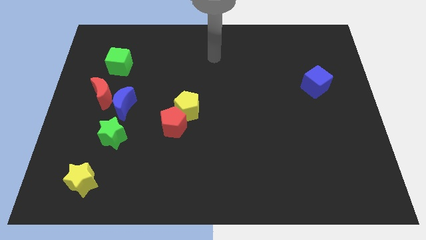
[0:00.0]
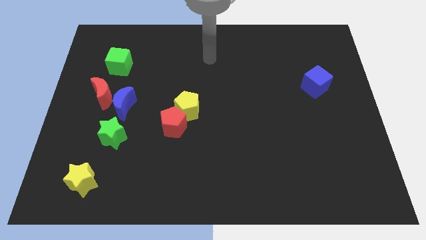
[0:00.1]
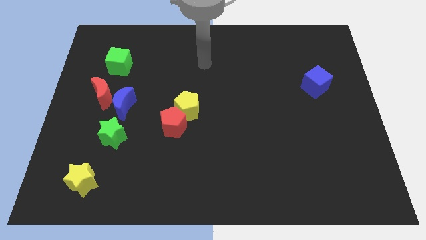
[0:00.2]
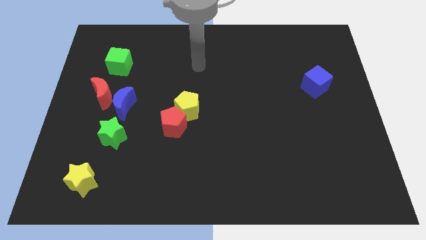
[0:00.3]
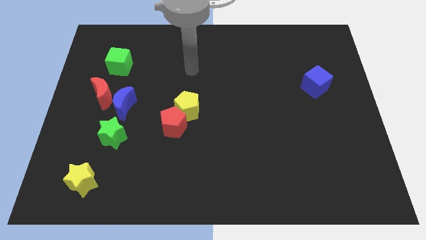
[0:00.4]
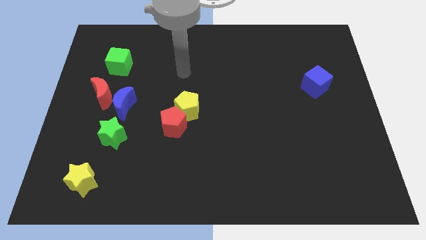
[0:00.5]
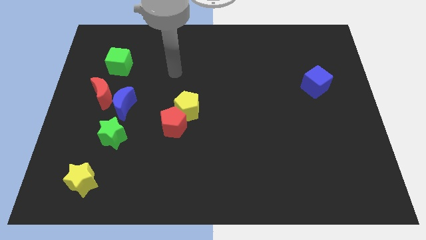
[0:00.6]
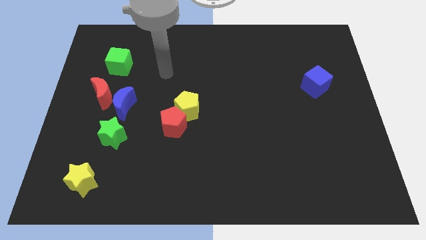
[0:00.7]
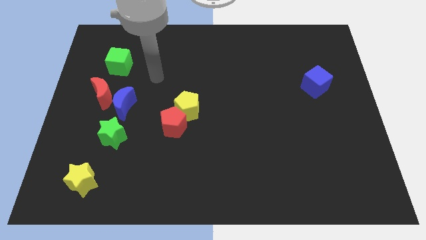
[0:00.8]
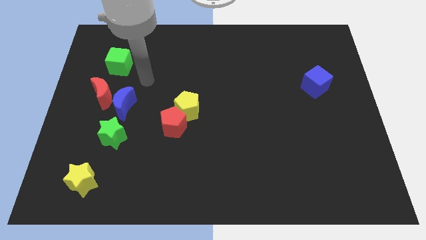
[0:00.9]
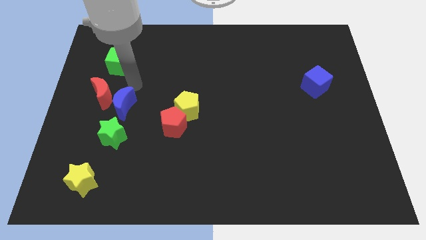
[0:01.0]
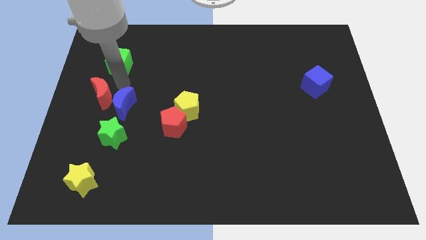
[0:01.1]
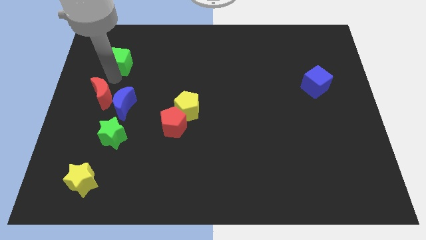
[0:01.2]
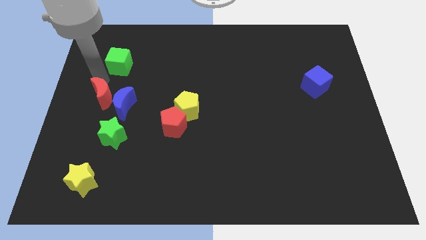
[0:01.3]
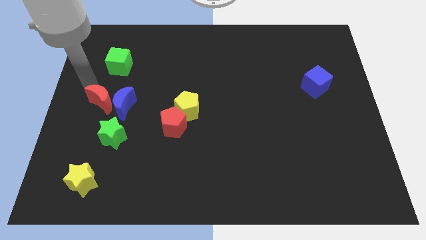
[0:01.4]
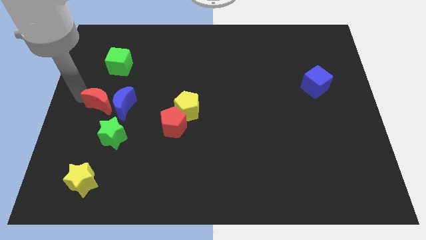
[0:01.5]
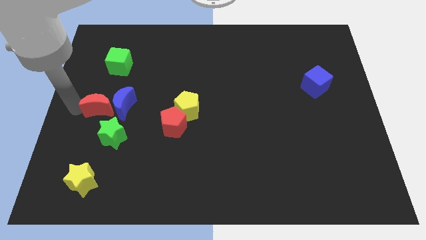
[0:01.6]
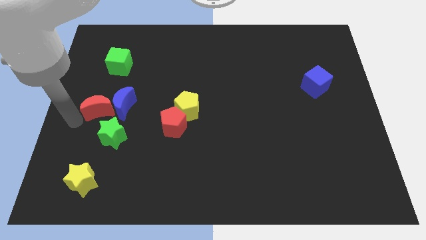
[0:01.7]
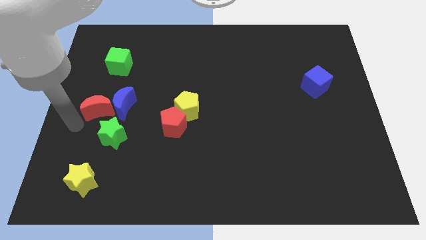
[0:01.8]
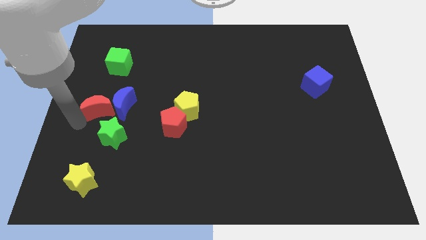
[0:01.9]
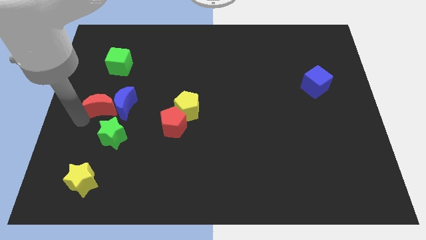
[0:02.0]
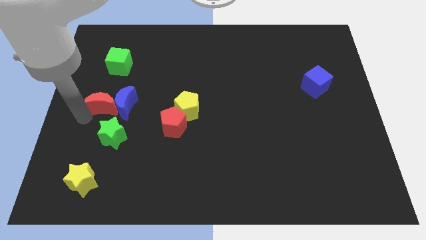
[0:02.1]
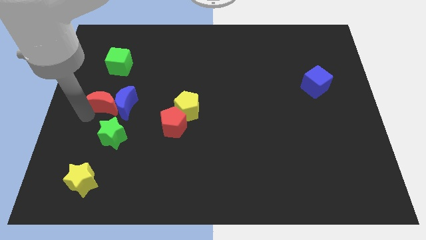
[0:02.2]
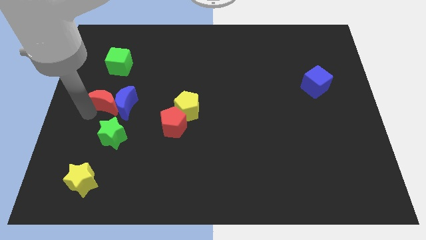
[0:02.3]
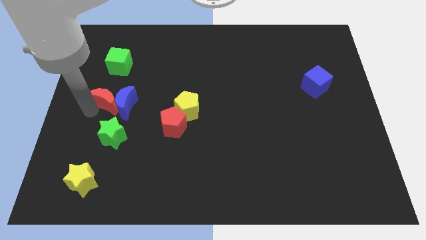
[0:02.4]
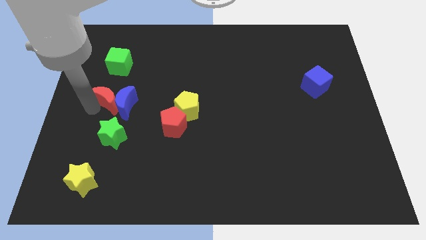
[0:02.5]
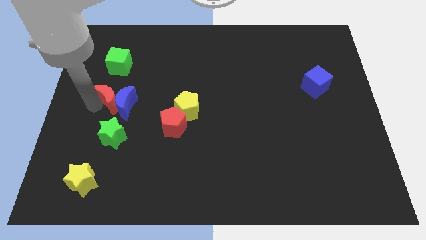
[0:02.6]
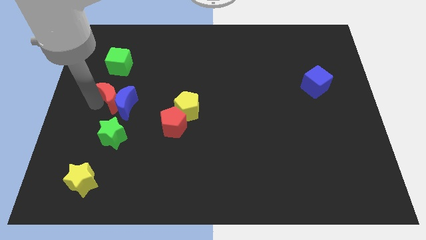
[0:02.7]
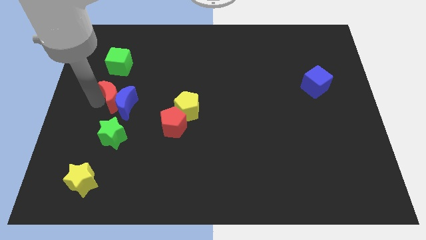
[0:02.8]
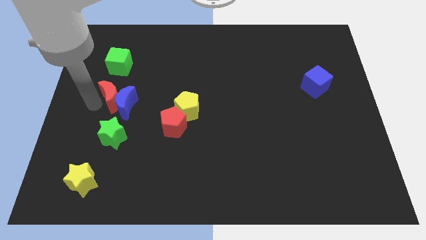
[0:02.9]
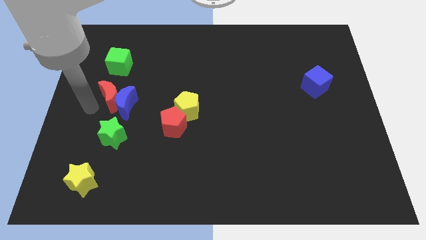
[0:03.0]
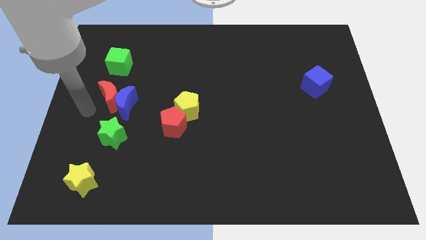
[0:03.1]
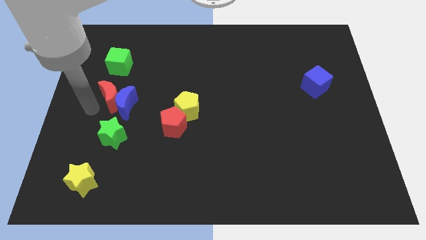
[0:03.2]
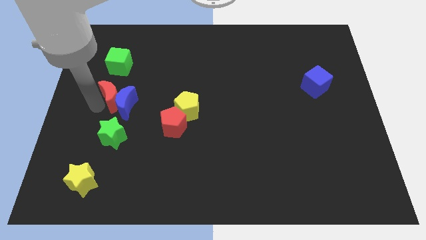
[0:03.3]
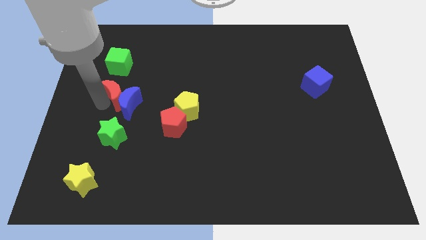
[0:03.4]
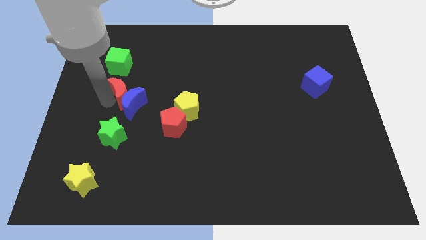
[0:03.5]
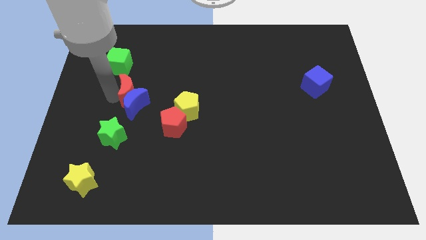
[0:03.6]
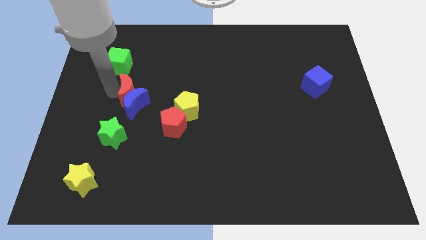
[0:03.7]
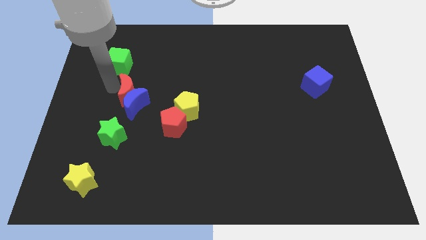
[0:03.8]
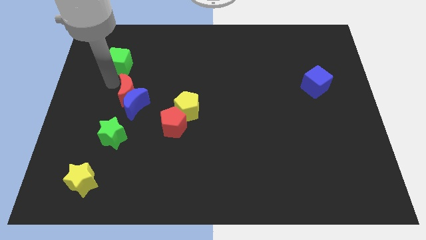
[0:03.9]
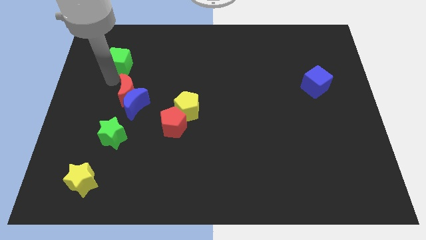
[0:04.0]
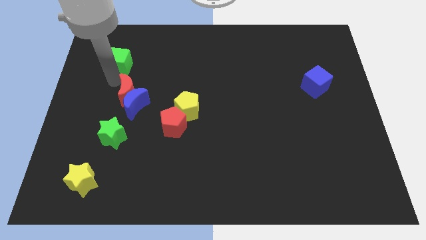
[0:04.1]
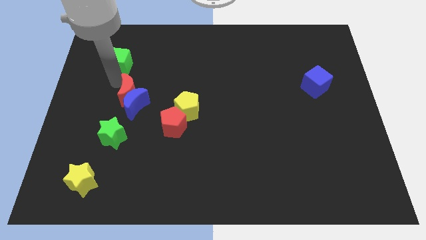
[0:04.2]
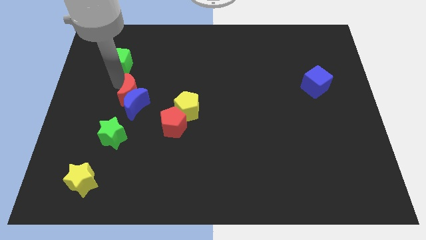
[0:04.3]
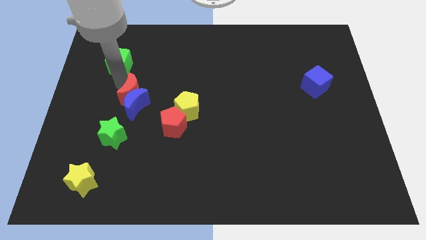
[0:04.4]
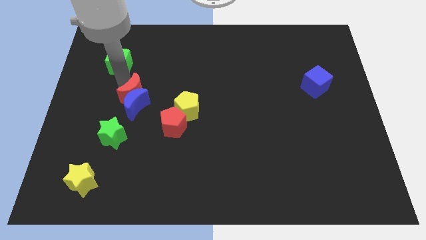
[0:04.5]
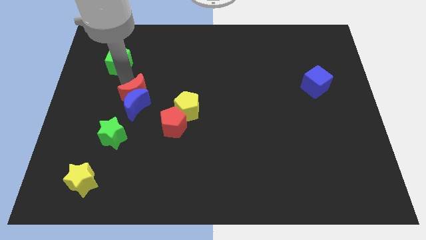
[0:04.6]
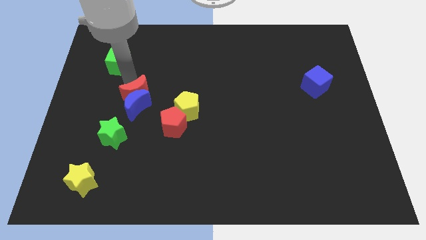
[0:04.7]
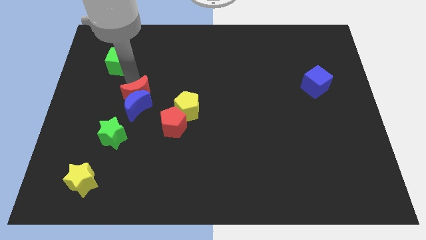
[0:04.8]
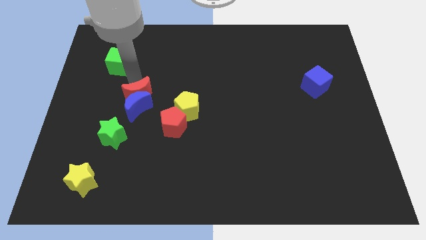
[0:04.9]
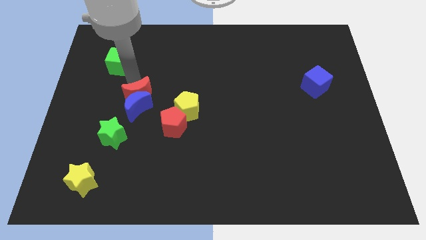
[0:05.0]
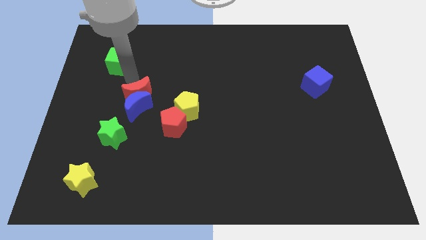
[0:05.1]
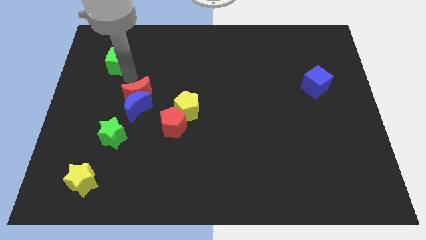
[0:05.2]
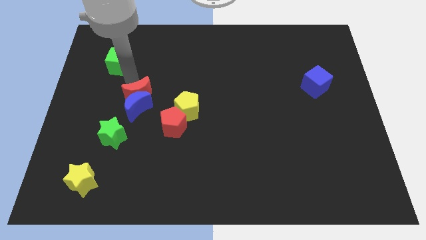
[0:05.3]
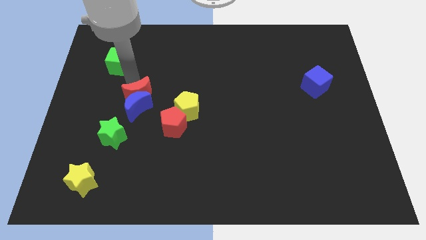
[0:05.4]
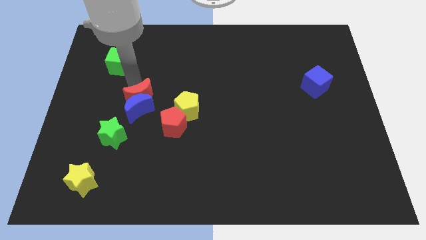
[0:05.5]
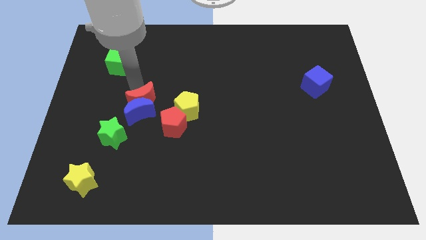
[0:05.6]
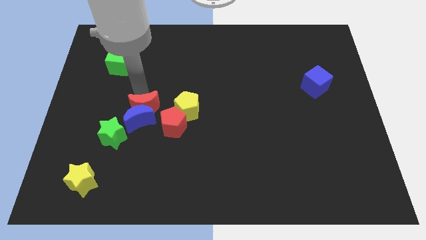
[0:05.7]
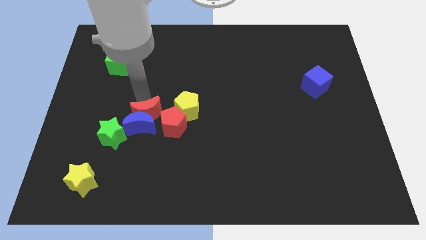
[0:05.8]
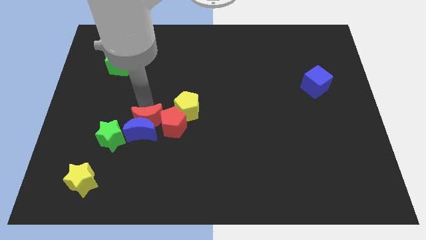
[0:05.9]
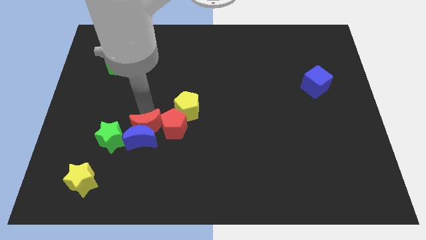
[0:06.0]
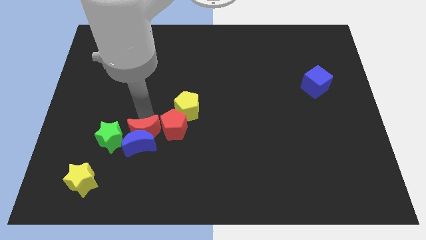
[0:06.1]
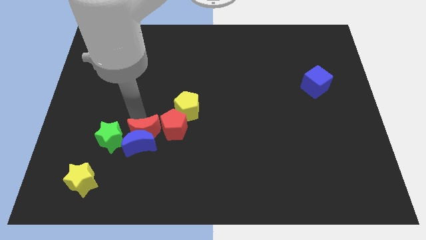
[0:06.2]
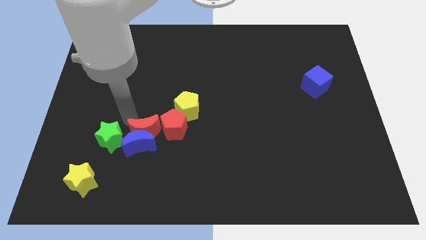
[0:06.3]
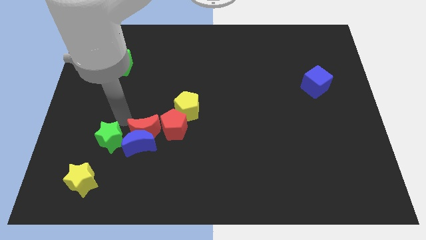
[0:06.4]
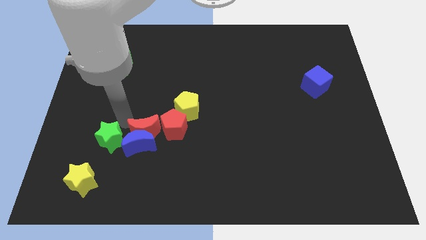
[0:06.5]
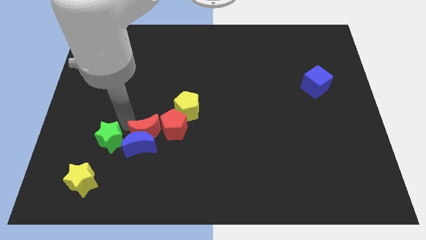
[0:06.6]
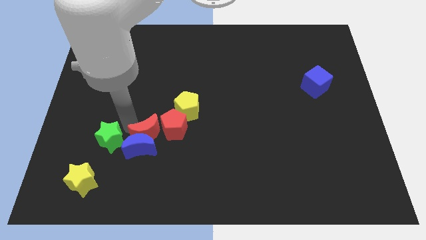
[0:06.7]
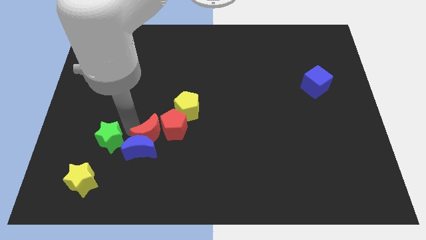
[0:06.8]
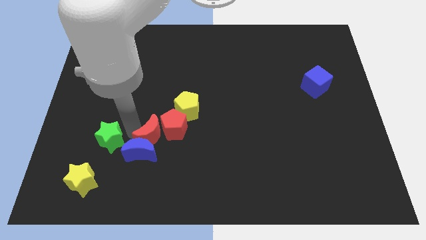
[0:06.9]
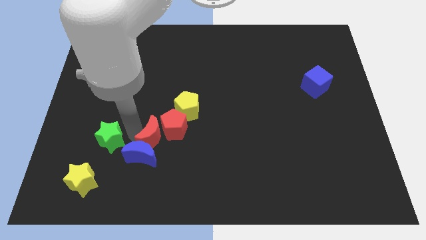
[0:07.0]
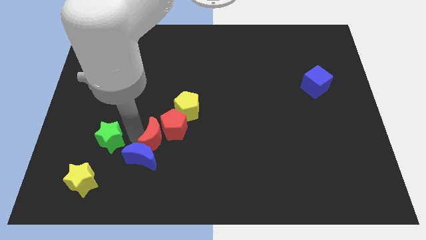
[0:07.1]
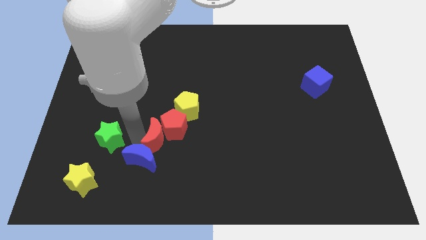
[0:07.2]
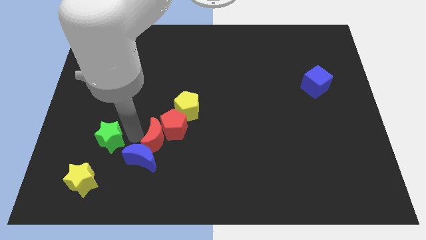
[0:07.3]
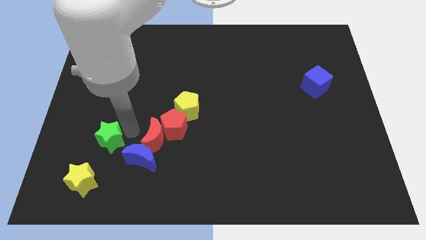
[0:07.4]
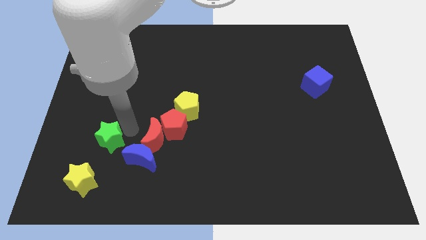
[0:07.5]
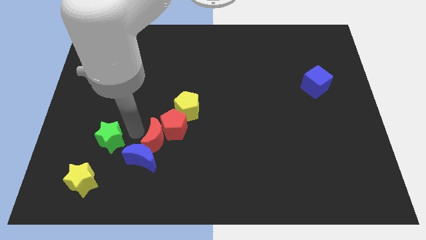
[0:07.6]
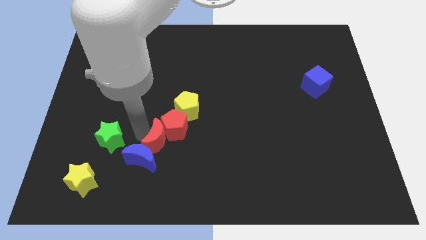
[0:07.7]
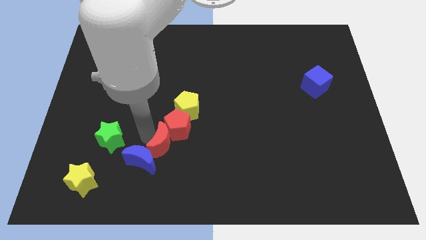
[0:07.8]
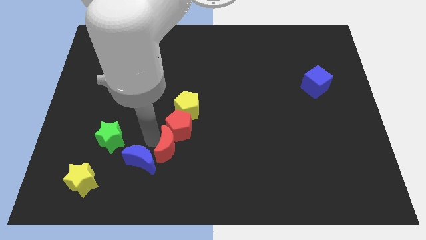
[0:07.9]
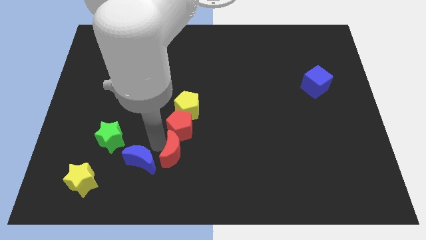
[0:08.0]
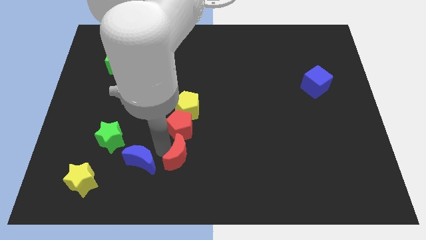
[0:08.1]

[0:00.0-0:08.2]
slide the red moon to the bottom right side of the red pentagon
